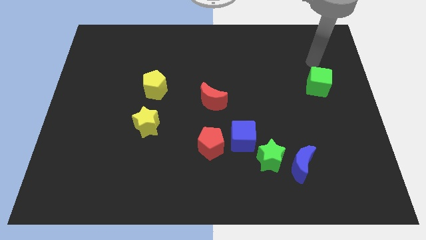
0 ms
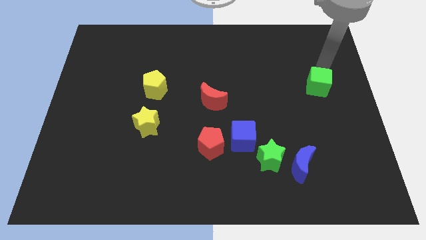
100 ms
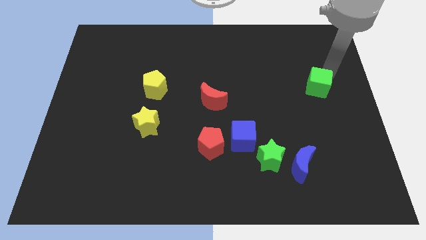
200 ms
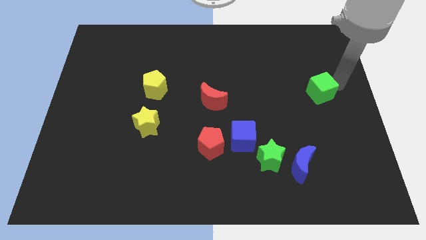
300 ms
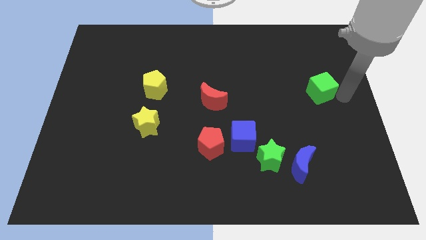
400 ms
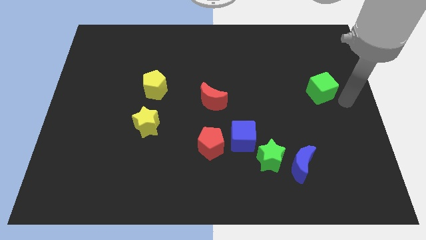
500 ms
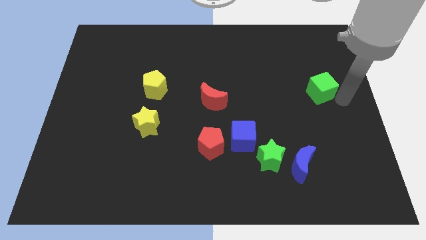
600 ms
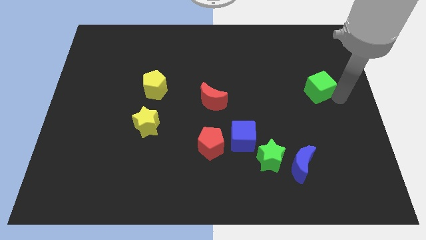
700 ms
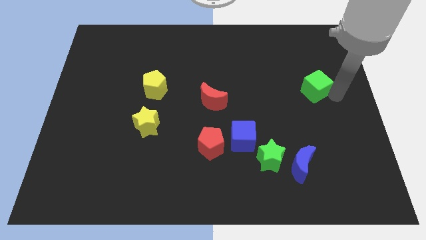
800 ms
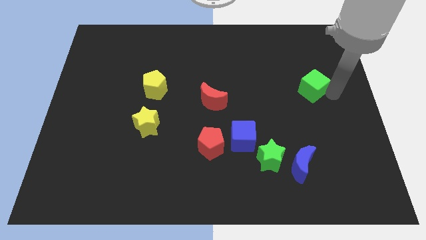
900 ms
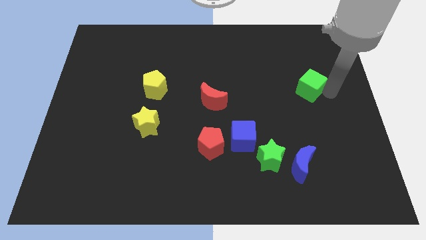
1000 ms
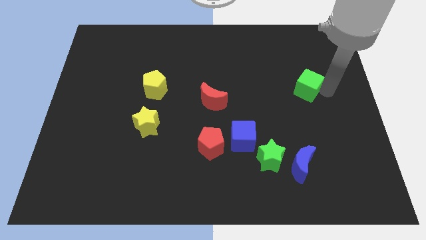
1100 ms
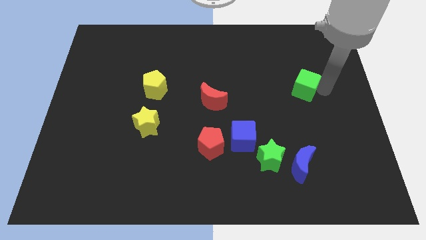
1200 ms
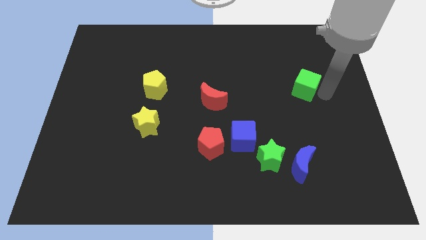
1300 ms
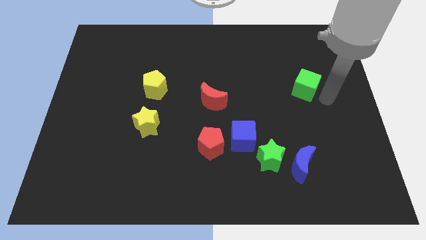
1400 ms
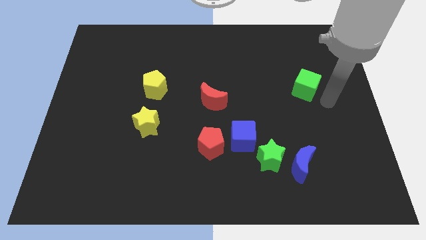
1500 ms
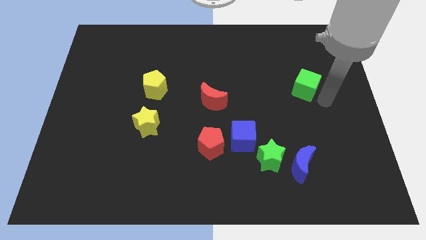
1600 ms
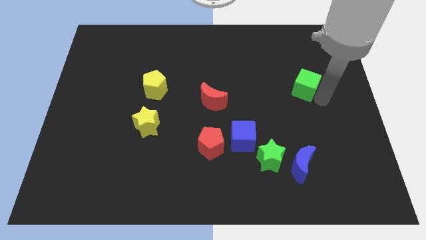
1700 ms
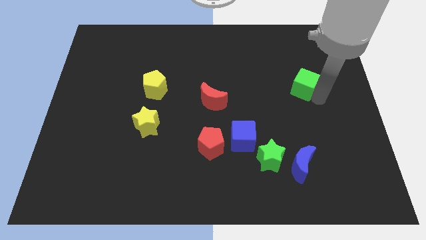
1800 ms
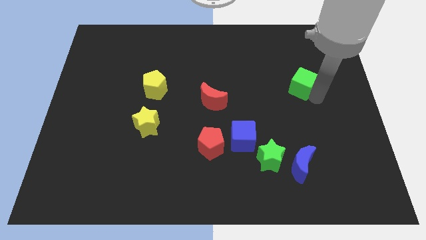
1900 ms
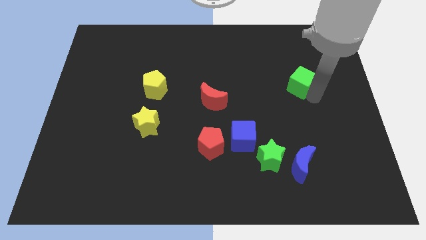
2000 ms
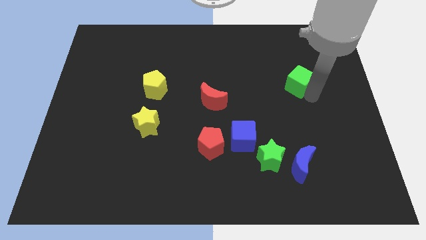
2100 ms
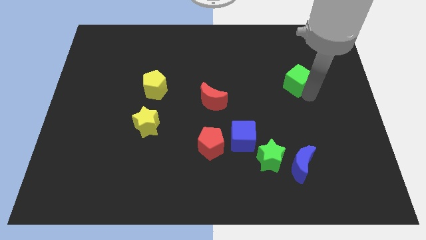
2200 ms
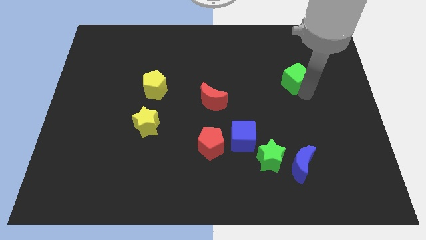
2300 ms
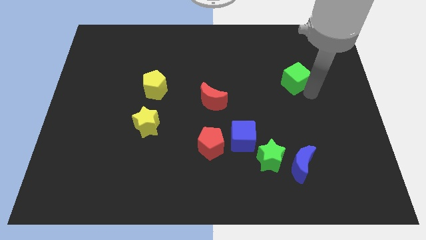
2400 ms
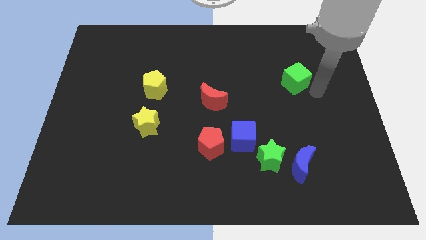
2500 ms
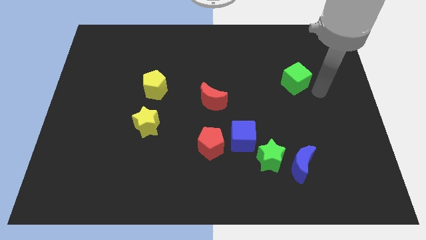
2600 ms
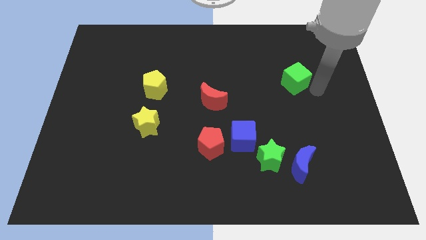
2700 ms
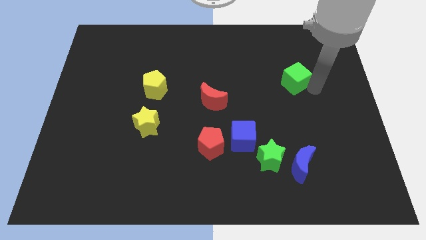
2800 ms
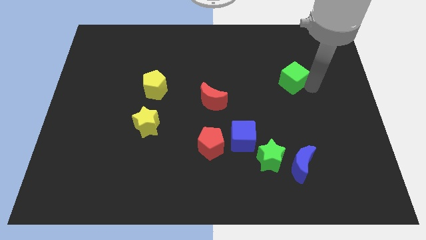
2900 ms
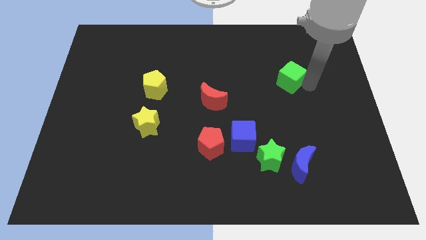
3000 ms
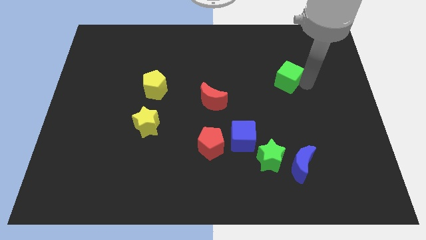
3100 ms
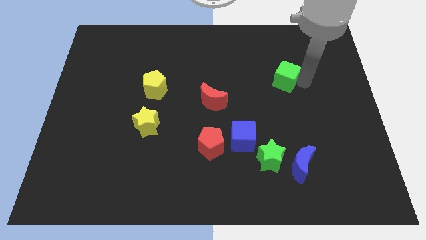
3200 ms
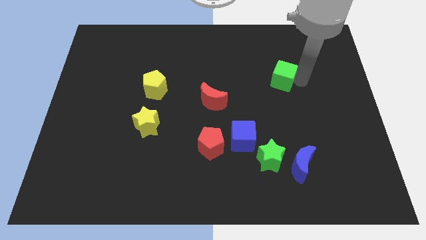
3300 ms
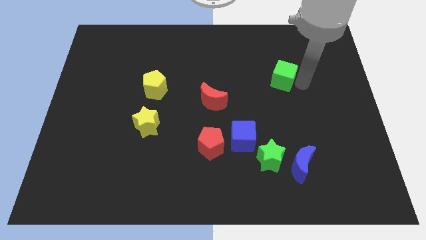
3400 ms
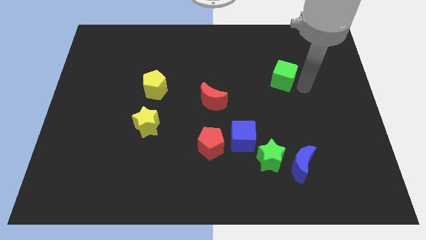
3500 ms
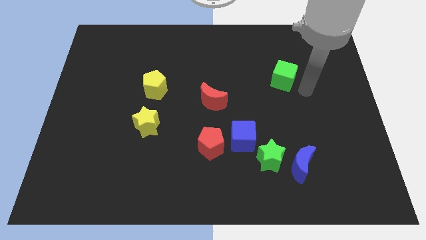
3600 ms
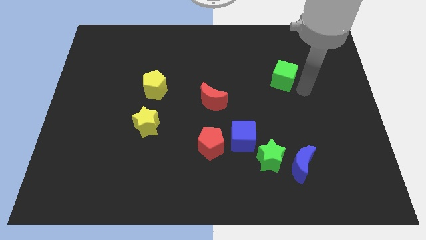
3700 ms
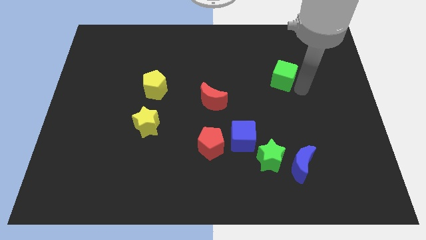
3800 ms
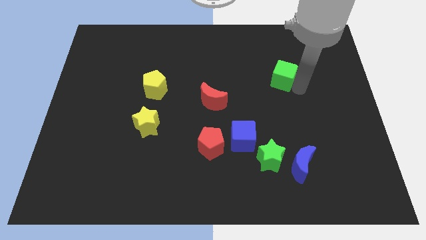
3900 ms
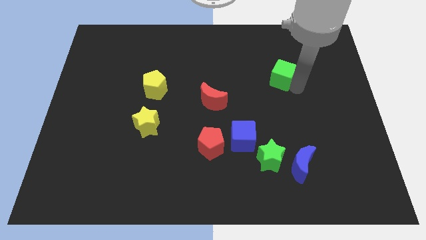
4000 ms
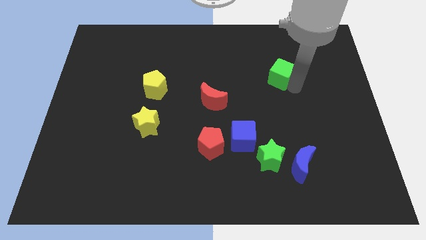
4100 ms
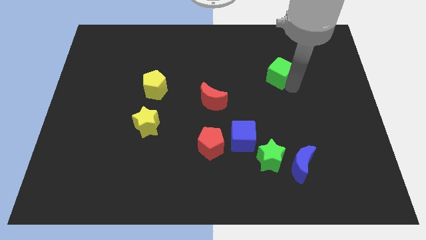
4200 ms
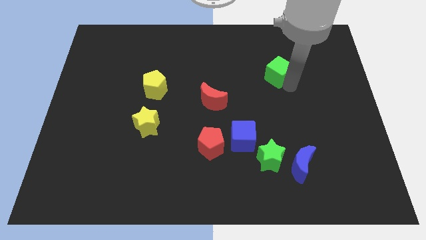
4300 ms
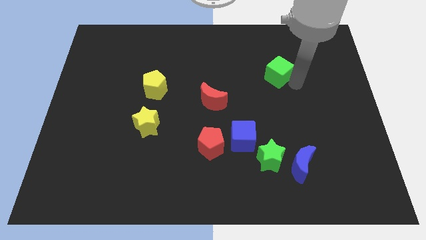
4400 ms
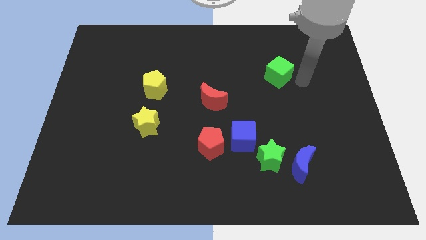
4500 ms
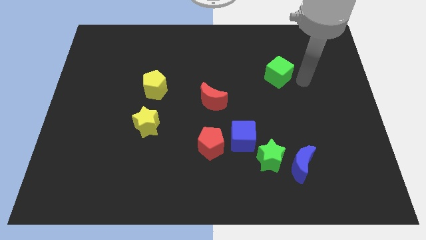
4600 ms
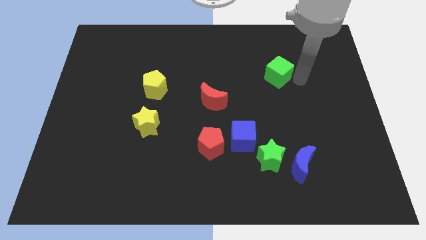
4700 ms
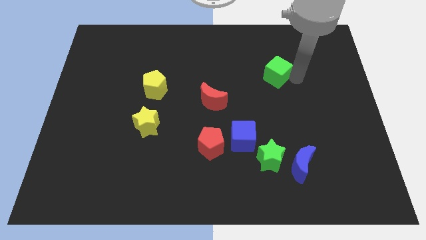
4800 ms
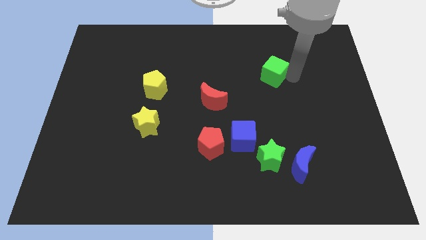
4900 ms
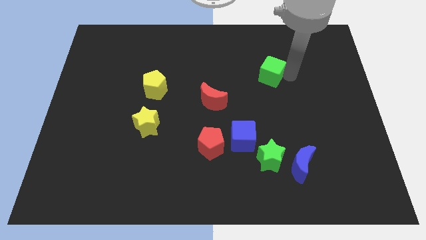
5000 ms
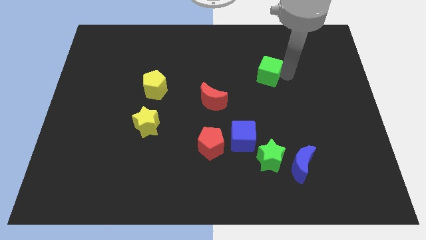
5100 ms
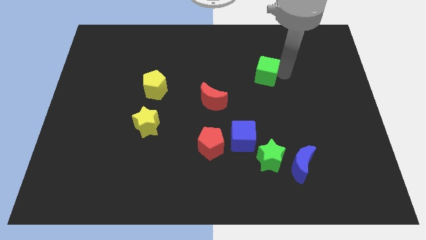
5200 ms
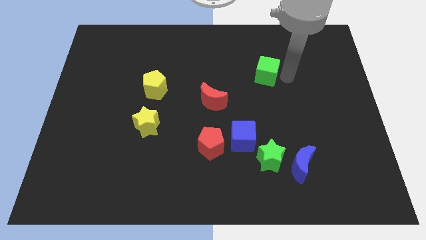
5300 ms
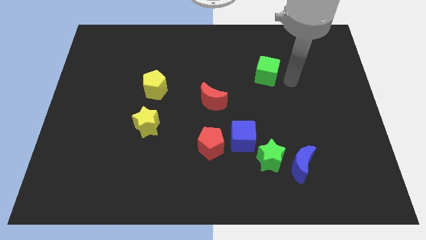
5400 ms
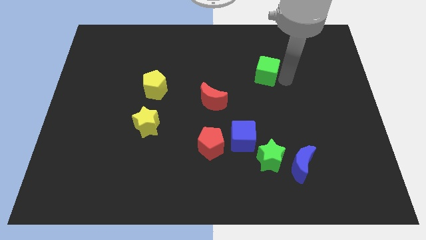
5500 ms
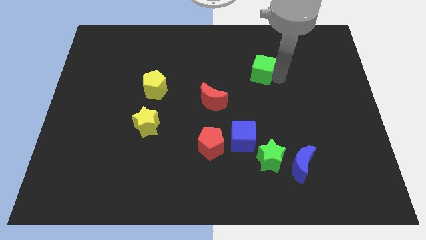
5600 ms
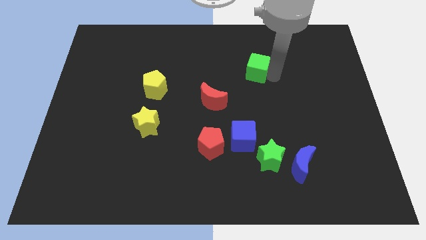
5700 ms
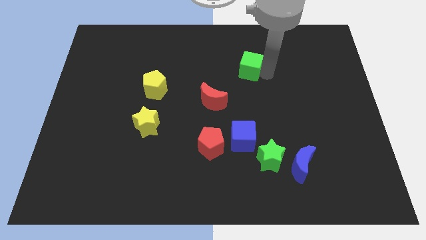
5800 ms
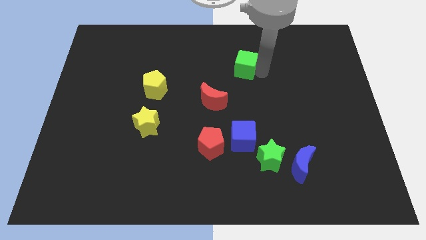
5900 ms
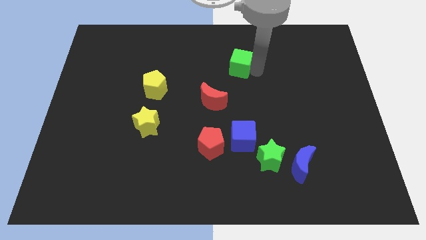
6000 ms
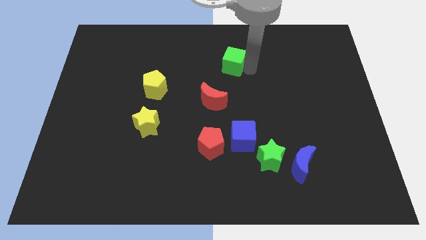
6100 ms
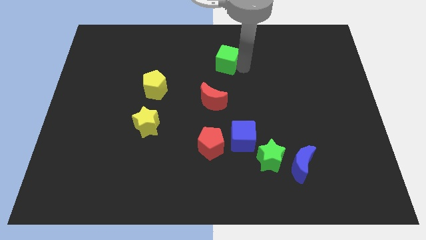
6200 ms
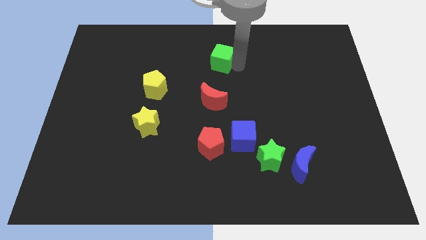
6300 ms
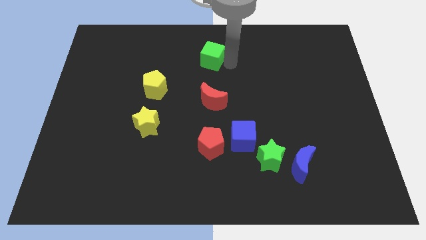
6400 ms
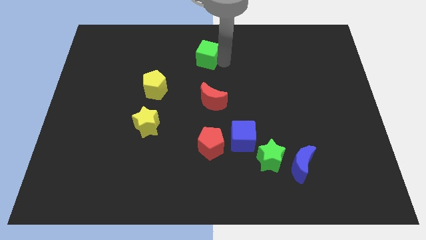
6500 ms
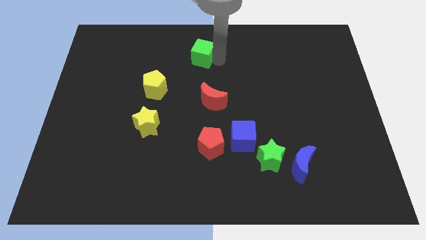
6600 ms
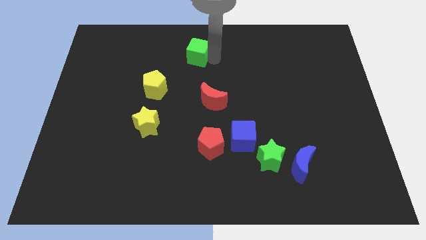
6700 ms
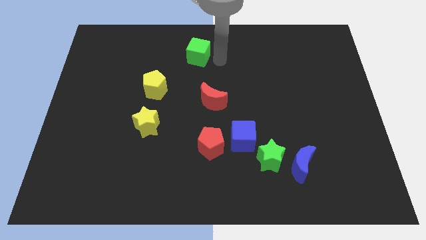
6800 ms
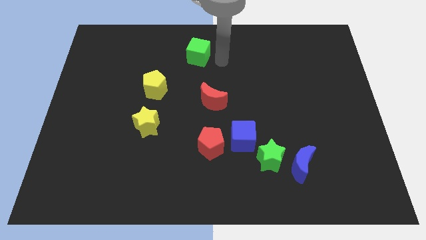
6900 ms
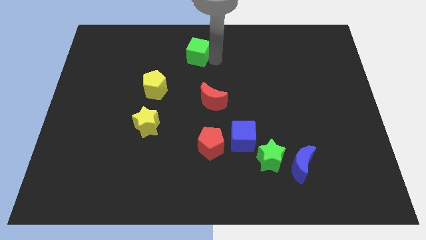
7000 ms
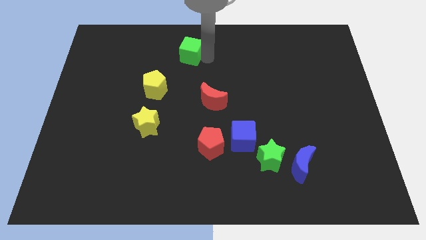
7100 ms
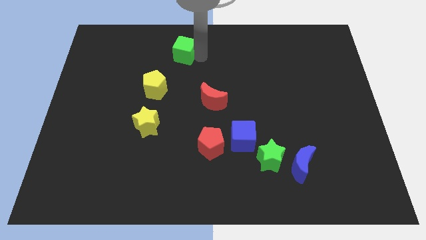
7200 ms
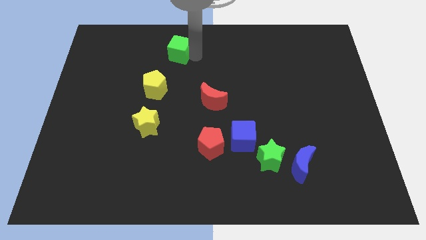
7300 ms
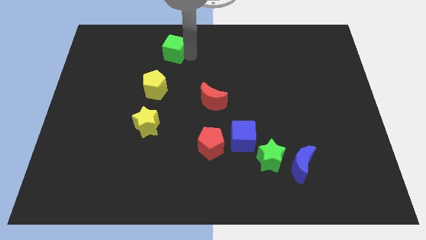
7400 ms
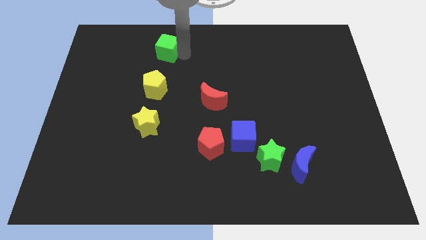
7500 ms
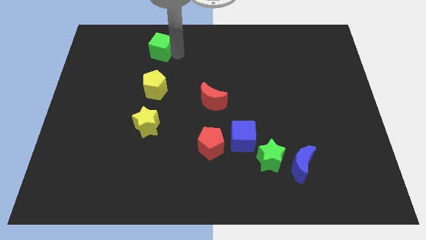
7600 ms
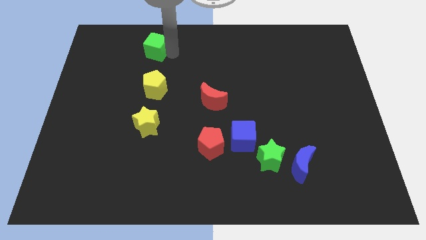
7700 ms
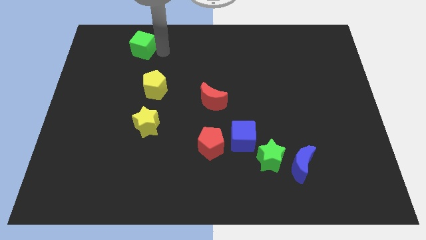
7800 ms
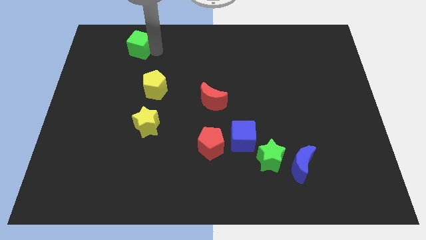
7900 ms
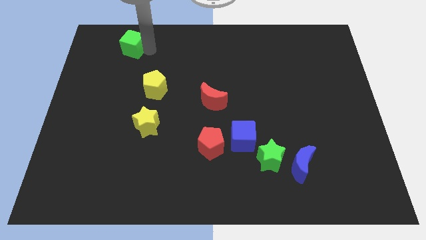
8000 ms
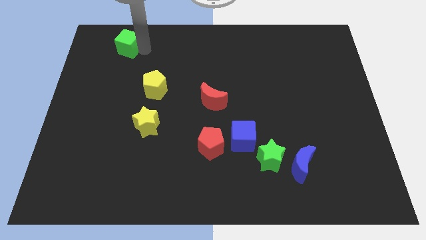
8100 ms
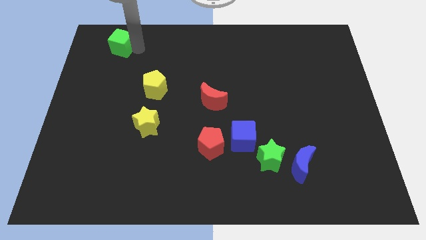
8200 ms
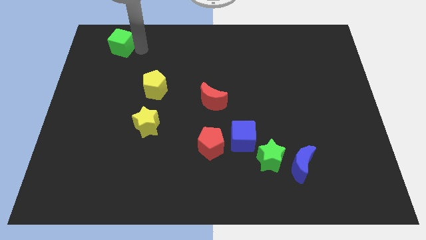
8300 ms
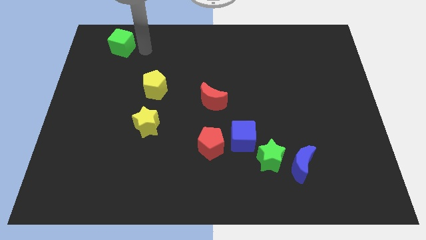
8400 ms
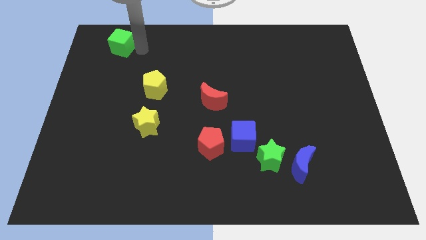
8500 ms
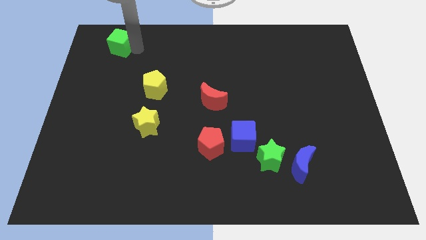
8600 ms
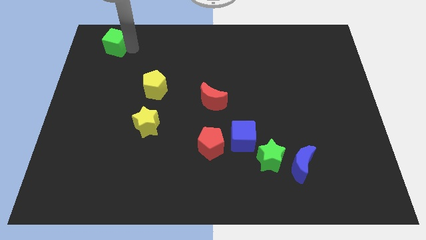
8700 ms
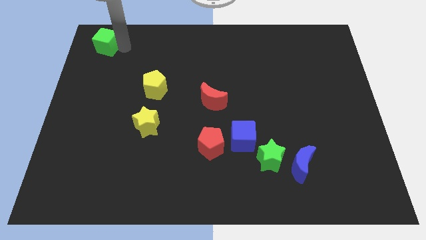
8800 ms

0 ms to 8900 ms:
push the green cube to the top left corner
